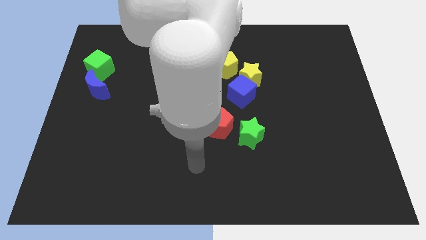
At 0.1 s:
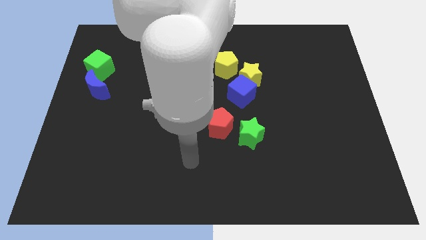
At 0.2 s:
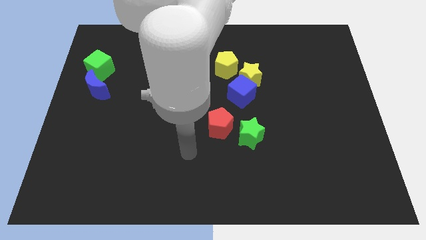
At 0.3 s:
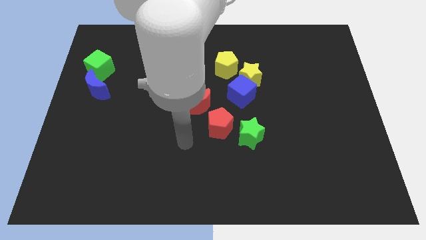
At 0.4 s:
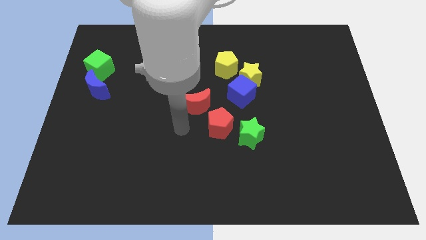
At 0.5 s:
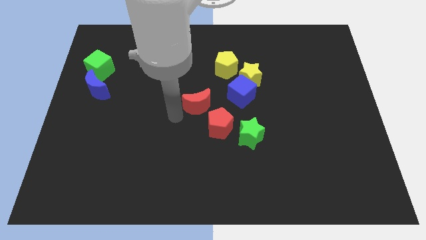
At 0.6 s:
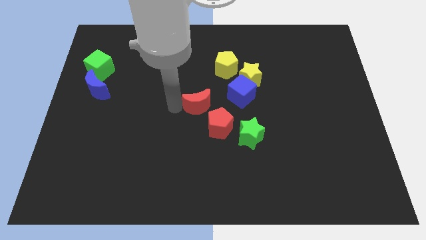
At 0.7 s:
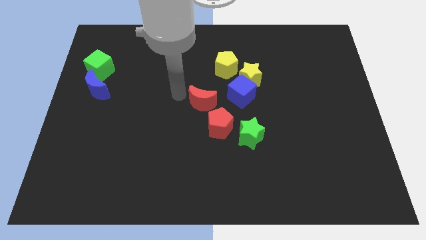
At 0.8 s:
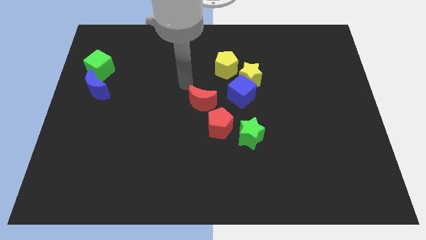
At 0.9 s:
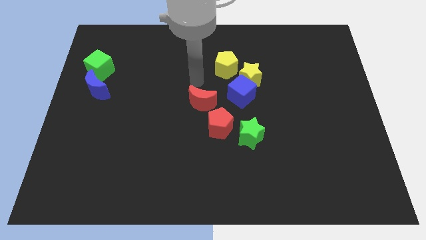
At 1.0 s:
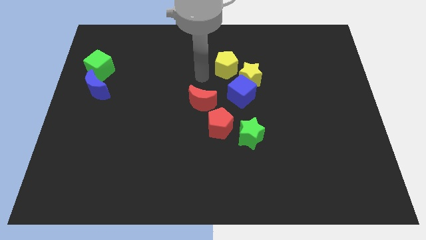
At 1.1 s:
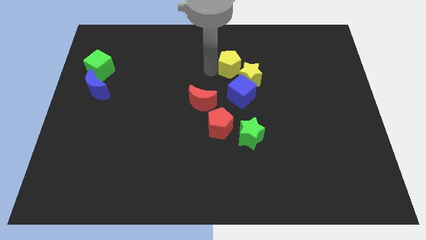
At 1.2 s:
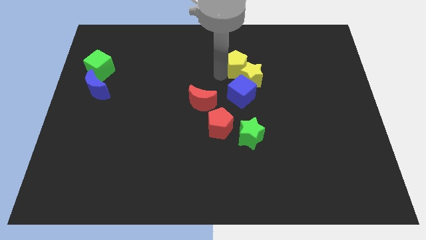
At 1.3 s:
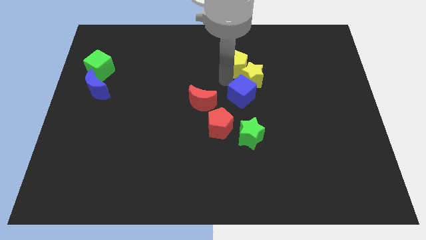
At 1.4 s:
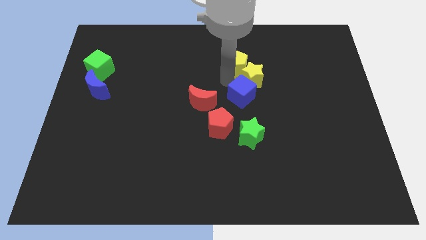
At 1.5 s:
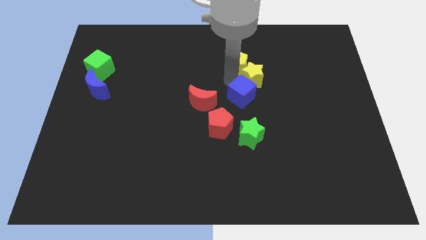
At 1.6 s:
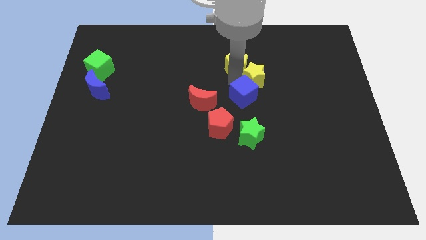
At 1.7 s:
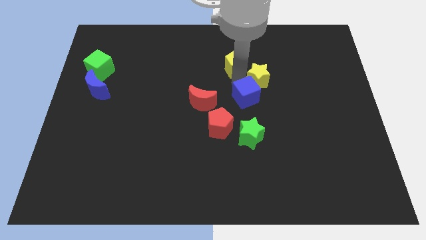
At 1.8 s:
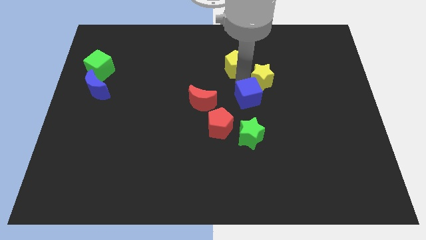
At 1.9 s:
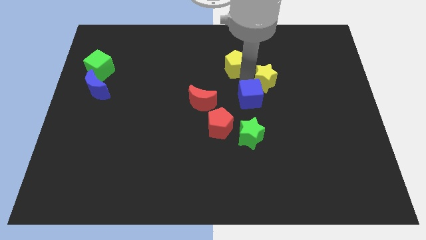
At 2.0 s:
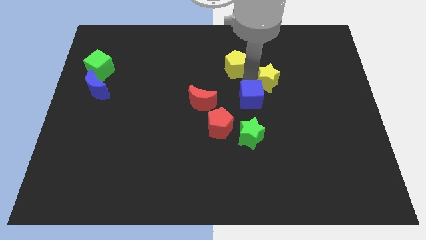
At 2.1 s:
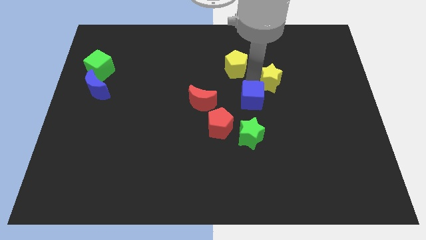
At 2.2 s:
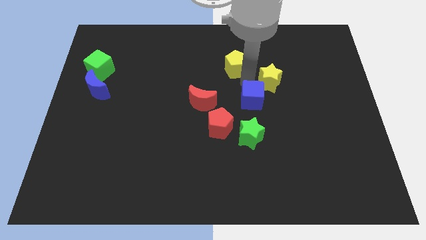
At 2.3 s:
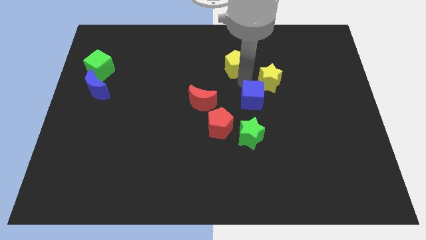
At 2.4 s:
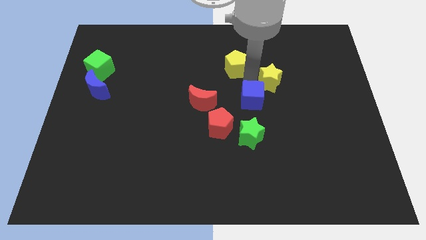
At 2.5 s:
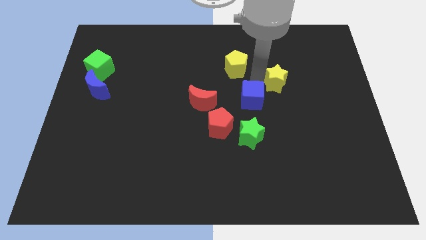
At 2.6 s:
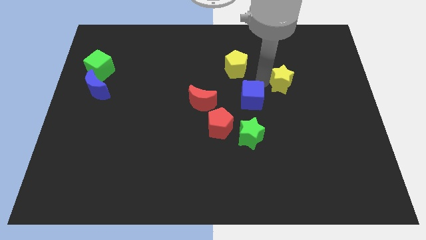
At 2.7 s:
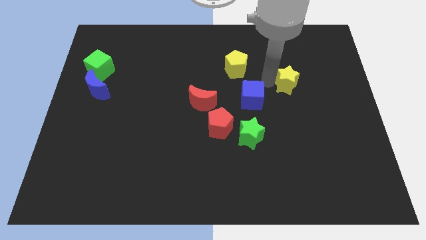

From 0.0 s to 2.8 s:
pull the yellow star apart from the blue cube and yellow pentagon

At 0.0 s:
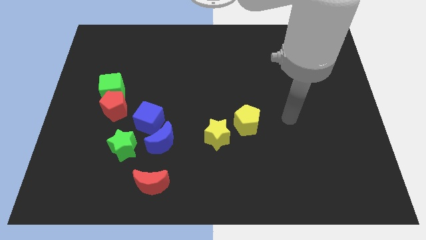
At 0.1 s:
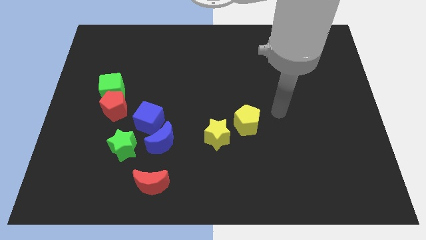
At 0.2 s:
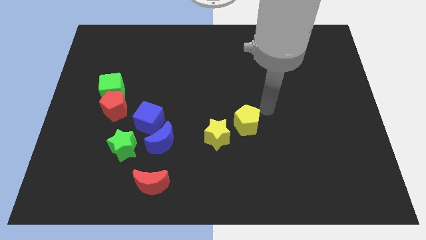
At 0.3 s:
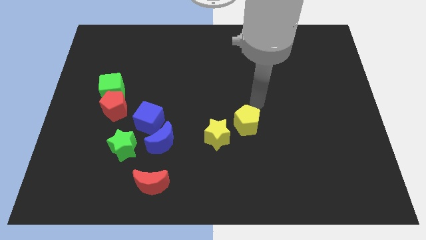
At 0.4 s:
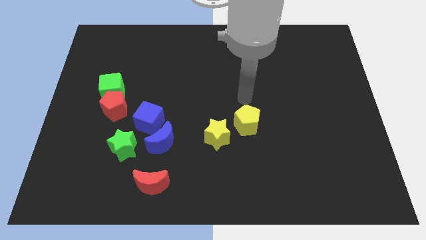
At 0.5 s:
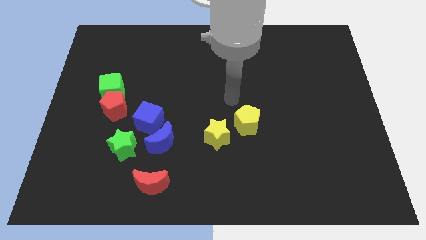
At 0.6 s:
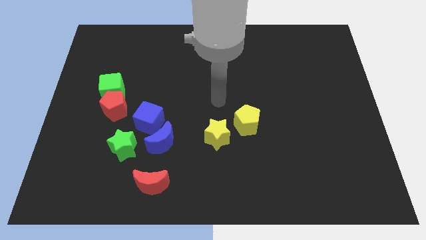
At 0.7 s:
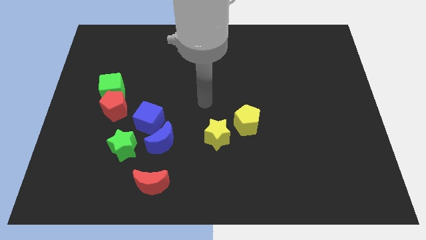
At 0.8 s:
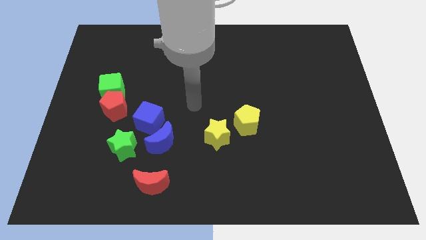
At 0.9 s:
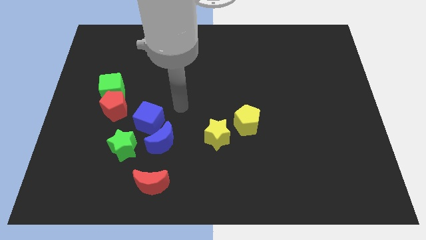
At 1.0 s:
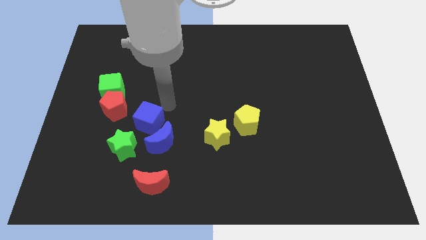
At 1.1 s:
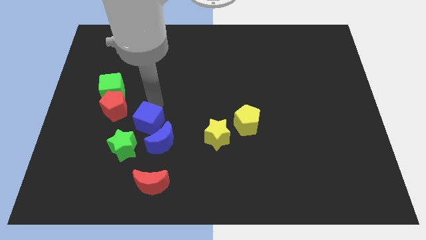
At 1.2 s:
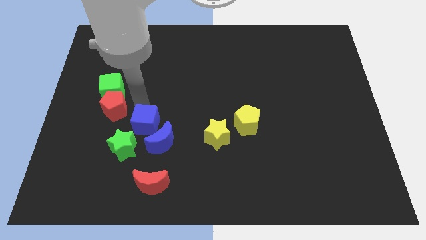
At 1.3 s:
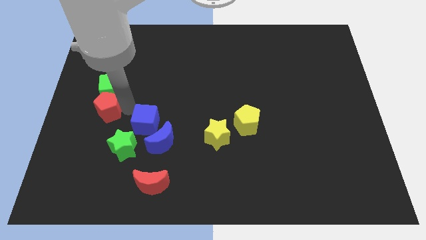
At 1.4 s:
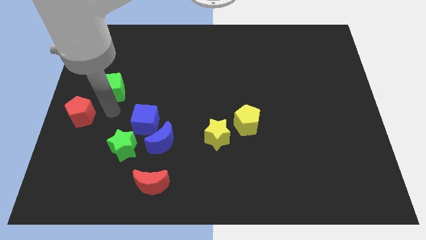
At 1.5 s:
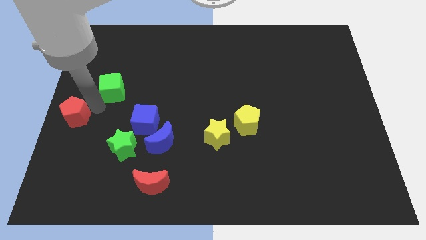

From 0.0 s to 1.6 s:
separate the green cube from the red pentagon

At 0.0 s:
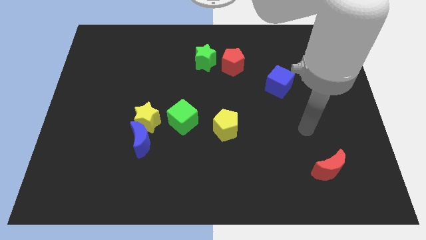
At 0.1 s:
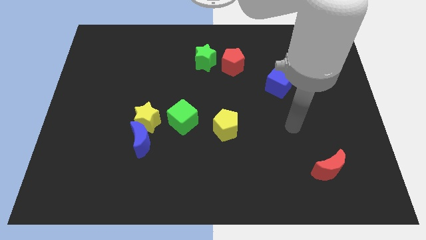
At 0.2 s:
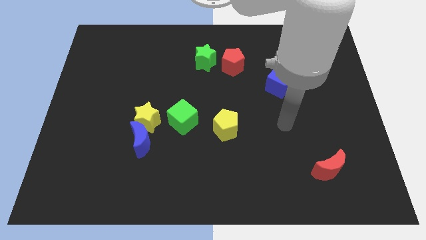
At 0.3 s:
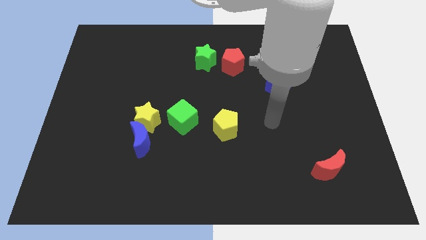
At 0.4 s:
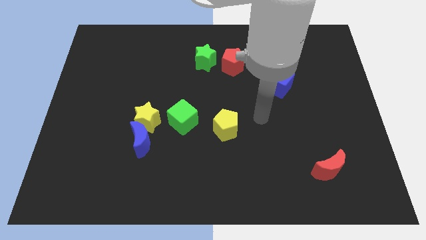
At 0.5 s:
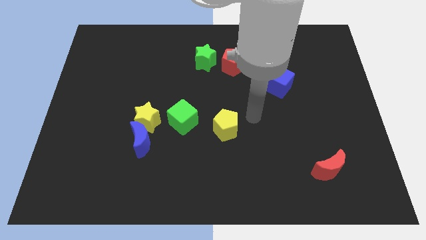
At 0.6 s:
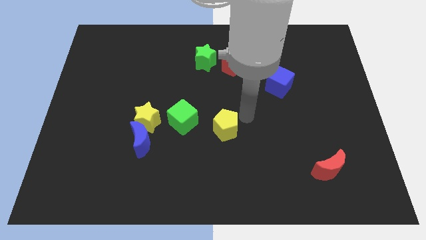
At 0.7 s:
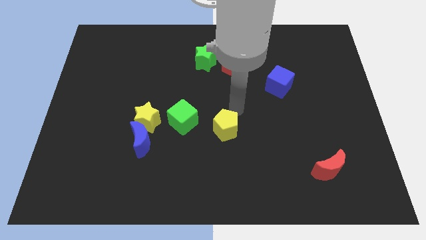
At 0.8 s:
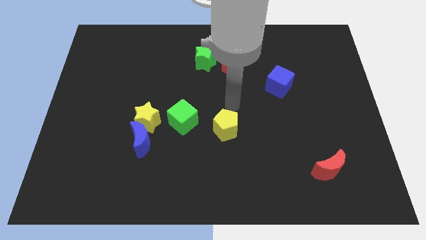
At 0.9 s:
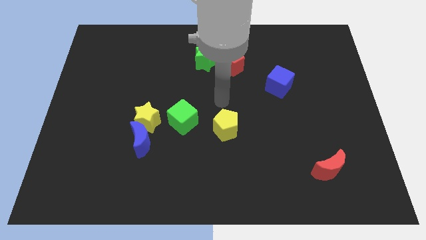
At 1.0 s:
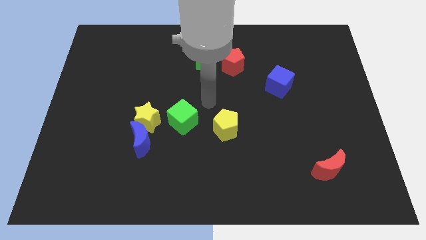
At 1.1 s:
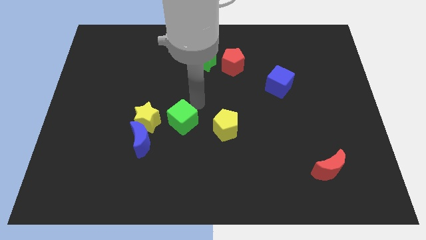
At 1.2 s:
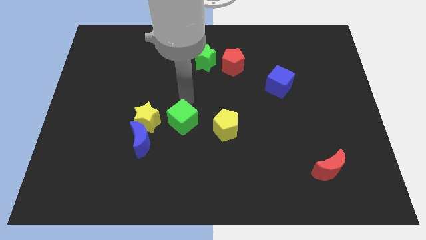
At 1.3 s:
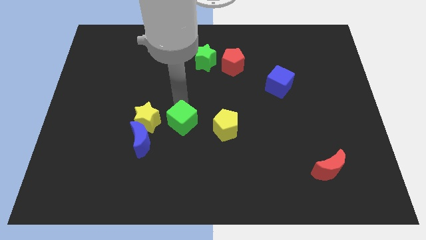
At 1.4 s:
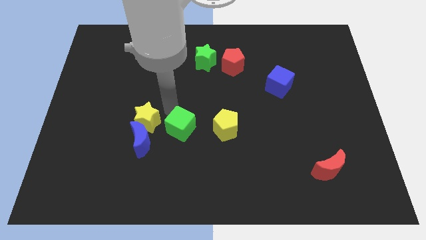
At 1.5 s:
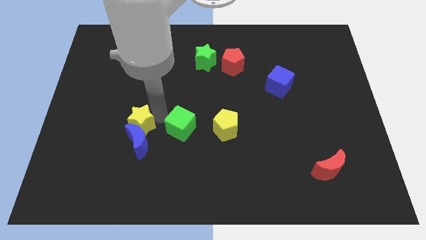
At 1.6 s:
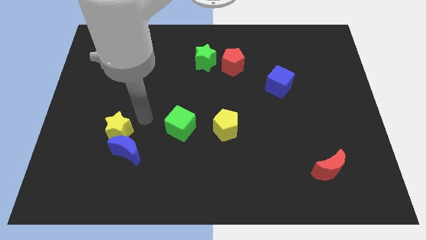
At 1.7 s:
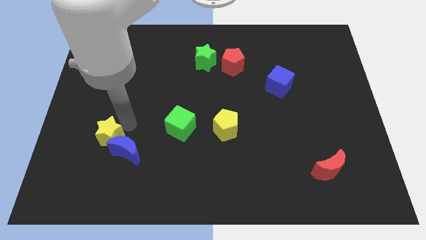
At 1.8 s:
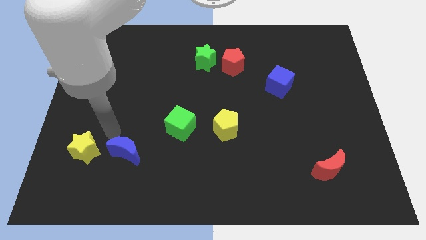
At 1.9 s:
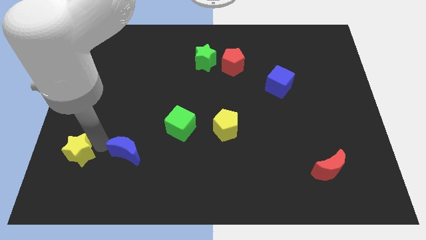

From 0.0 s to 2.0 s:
pull the blue moon apart from the yellow star

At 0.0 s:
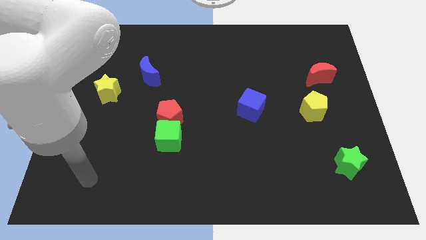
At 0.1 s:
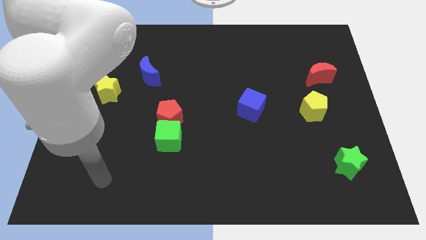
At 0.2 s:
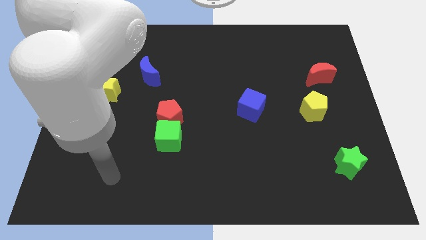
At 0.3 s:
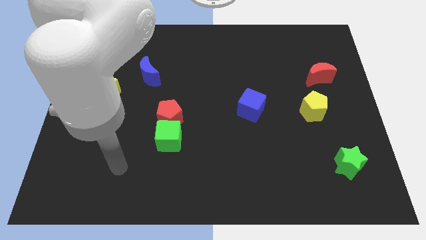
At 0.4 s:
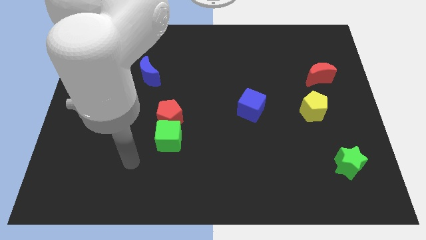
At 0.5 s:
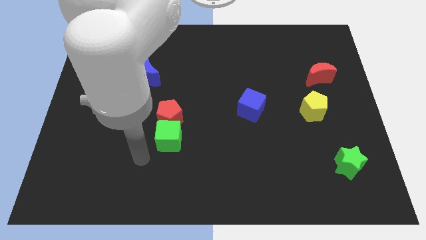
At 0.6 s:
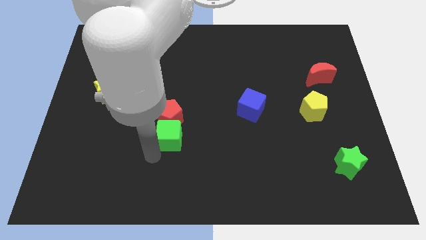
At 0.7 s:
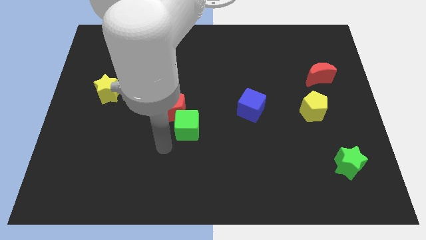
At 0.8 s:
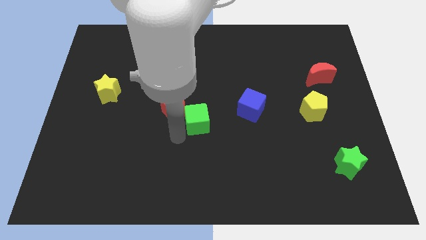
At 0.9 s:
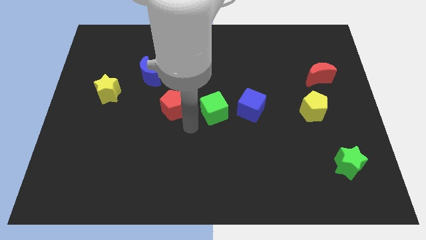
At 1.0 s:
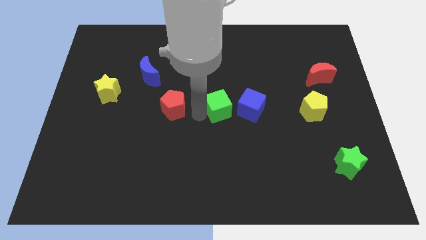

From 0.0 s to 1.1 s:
separate the red pentagon from the green cube

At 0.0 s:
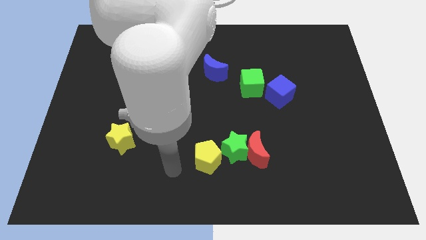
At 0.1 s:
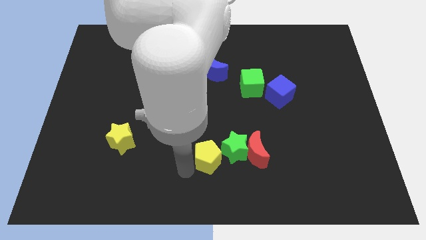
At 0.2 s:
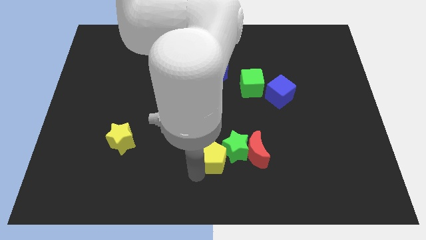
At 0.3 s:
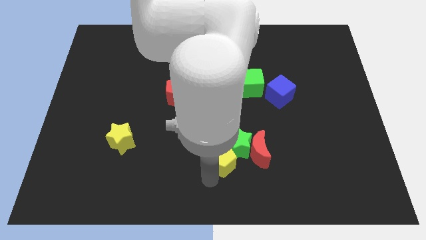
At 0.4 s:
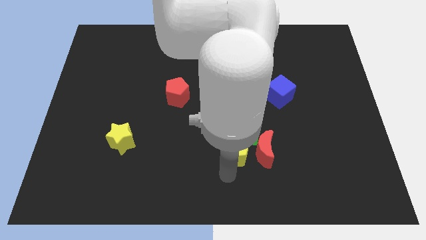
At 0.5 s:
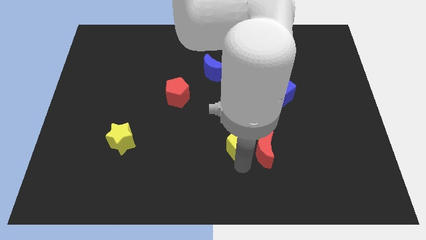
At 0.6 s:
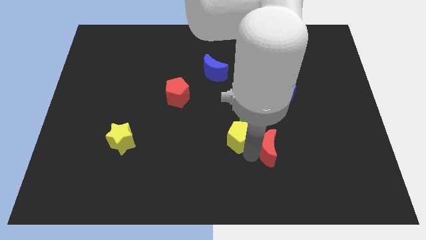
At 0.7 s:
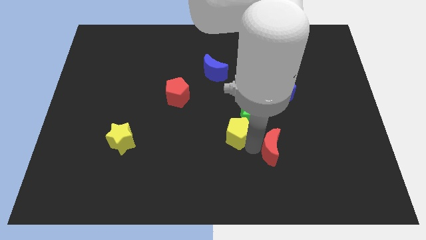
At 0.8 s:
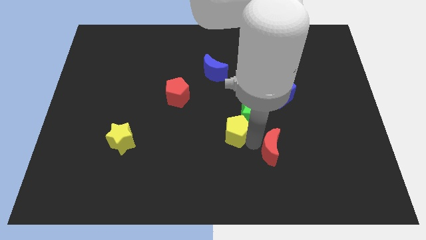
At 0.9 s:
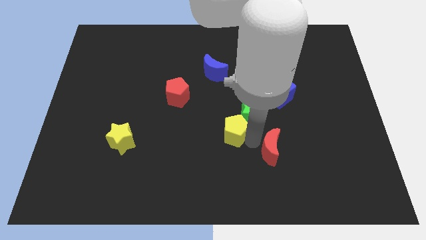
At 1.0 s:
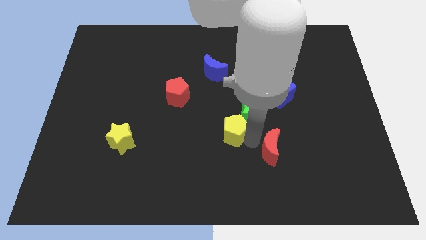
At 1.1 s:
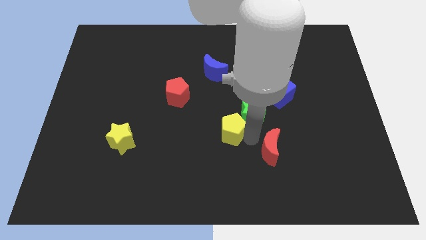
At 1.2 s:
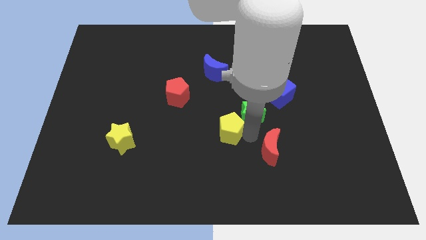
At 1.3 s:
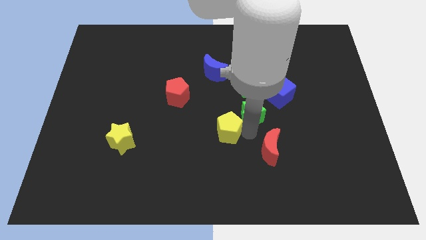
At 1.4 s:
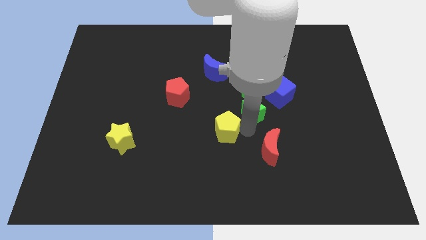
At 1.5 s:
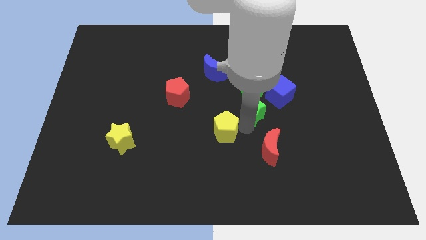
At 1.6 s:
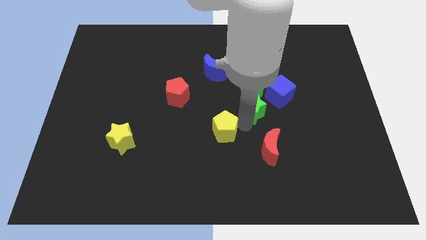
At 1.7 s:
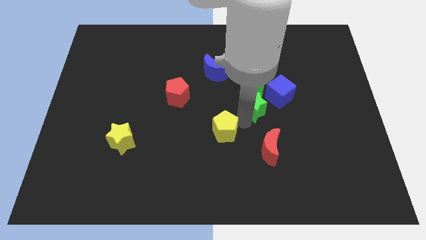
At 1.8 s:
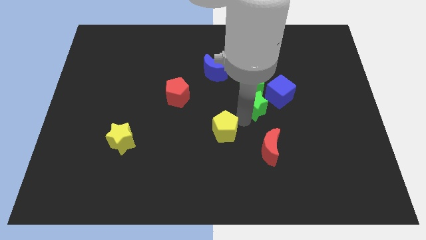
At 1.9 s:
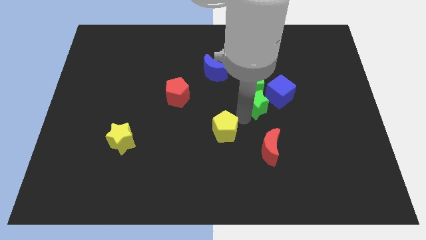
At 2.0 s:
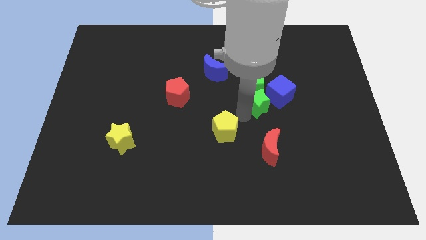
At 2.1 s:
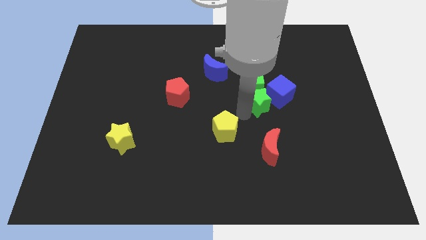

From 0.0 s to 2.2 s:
pull the green star apart from the red moon and yellow pentagon
